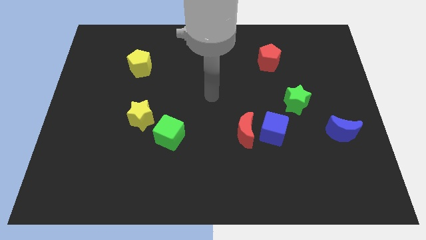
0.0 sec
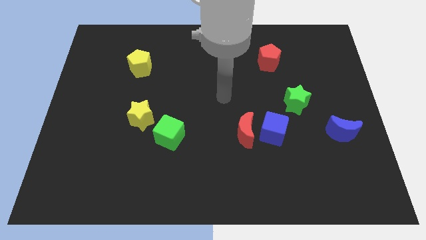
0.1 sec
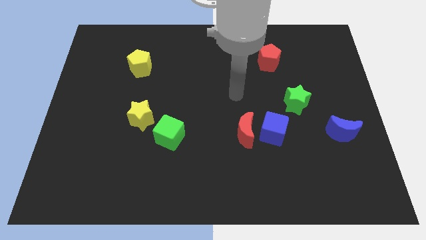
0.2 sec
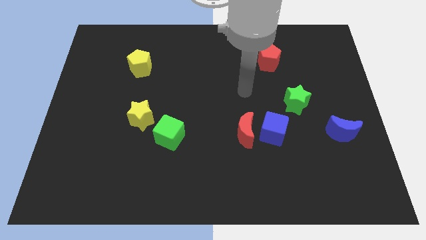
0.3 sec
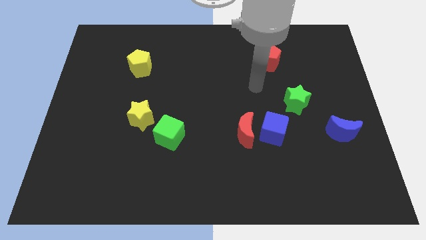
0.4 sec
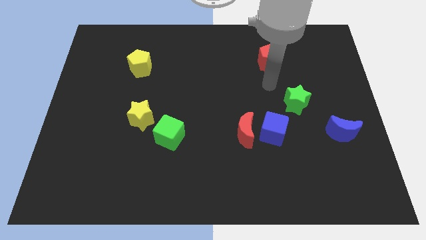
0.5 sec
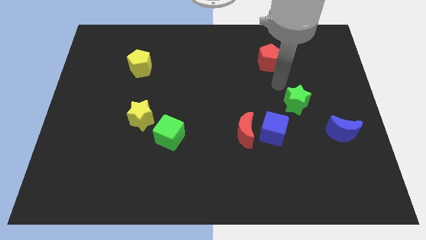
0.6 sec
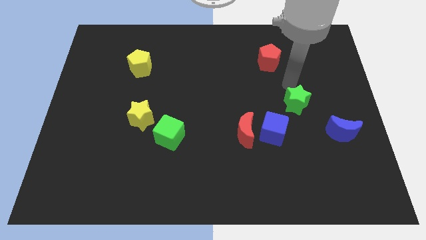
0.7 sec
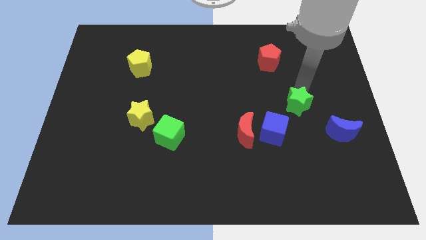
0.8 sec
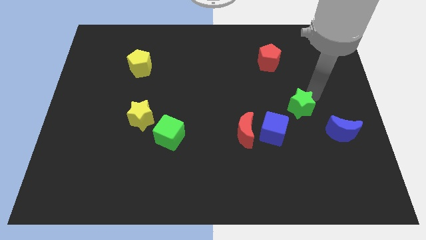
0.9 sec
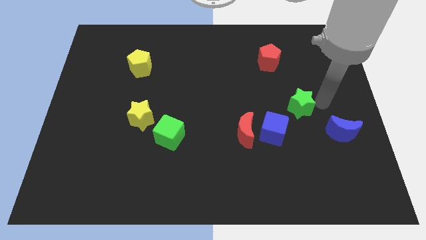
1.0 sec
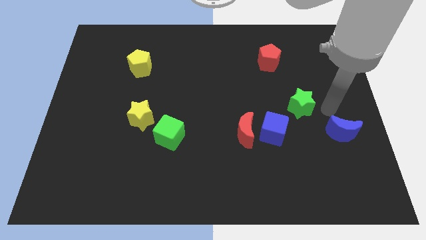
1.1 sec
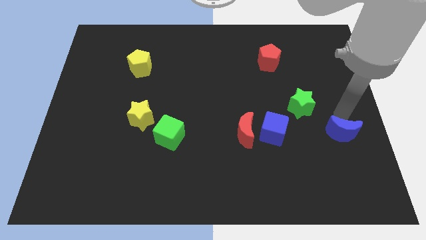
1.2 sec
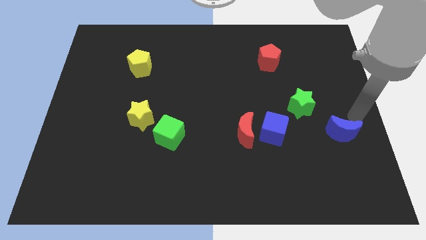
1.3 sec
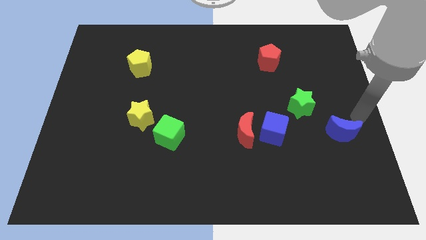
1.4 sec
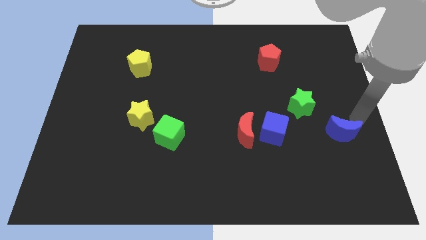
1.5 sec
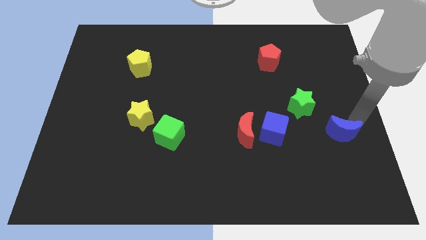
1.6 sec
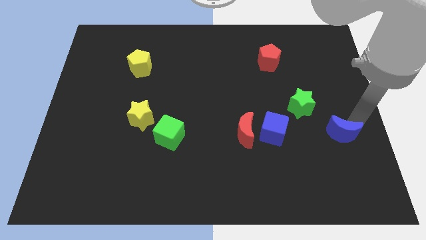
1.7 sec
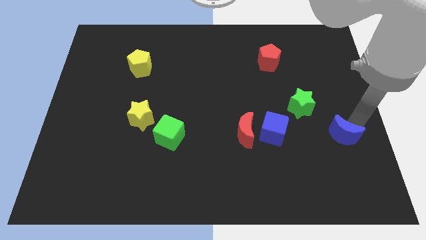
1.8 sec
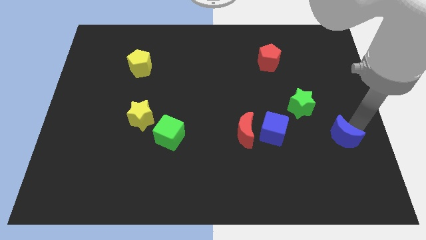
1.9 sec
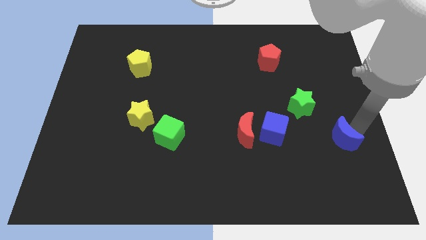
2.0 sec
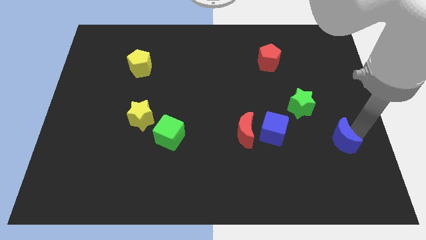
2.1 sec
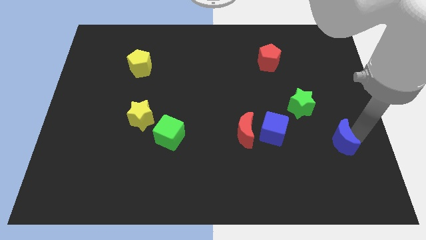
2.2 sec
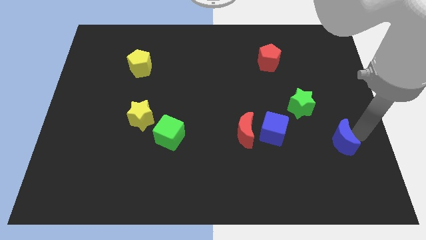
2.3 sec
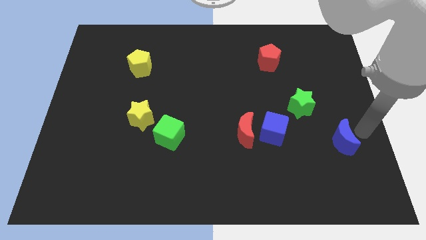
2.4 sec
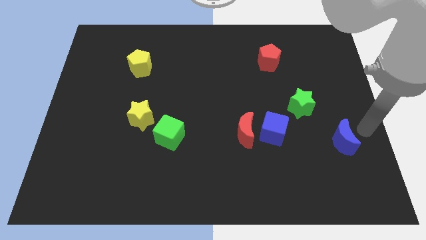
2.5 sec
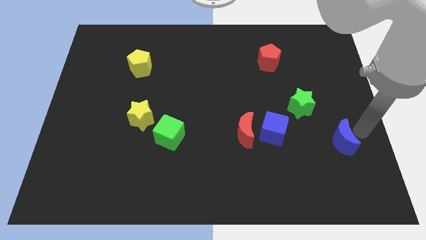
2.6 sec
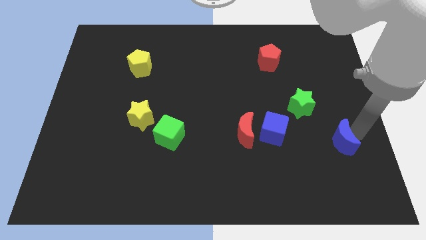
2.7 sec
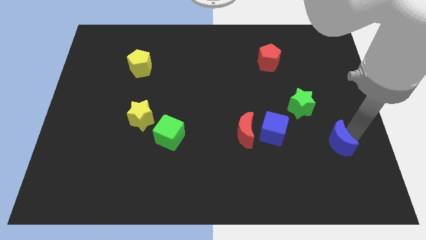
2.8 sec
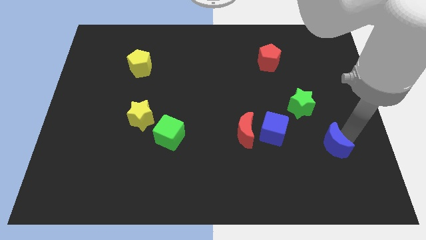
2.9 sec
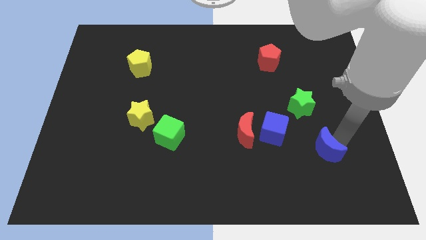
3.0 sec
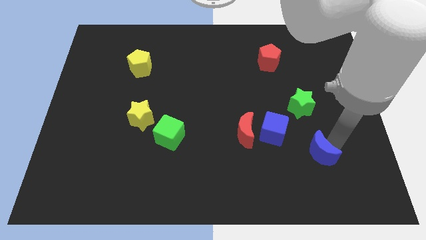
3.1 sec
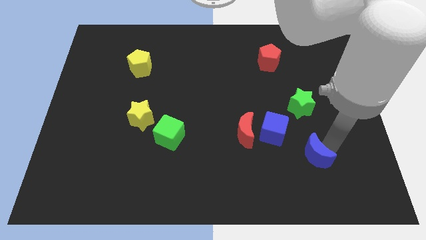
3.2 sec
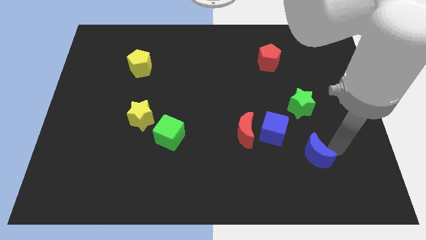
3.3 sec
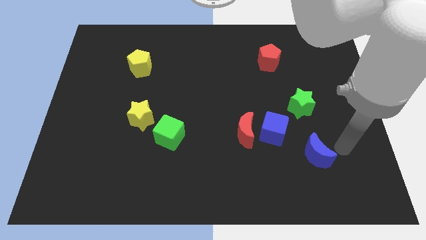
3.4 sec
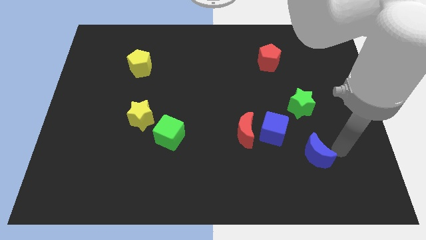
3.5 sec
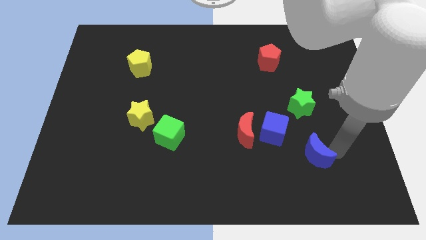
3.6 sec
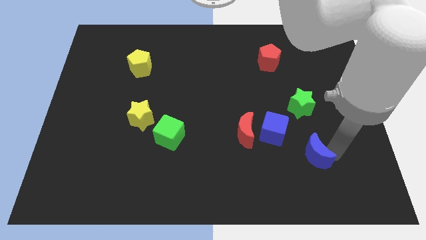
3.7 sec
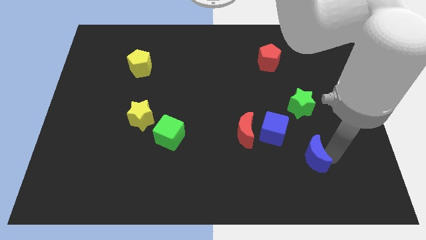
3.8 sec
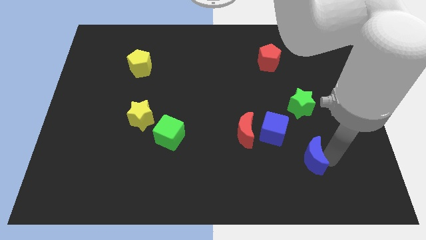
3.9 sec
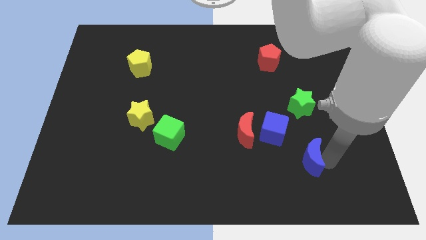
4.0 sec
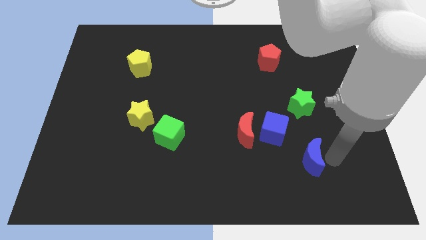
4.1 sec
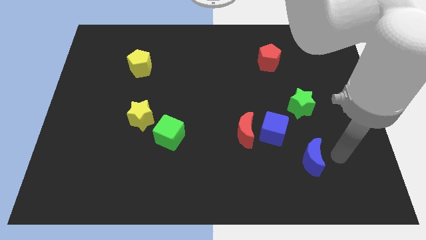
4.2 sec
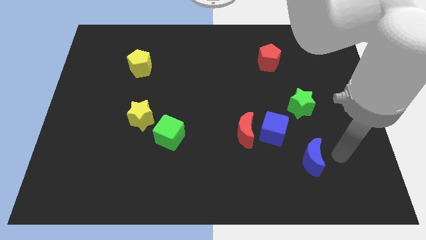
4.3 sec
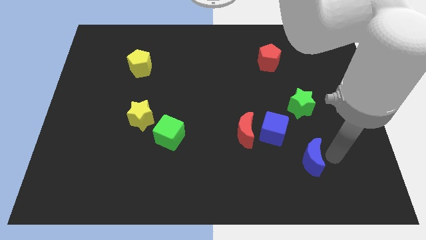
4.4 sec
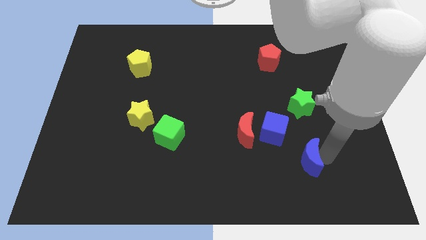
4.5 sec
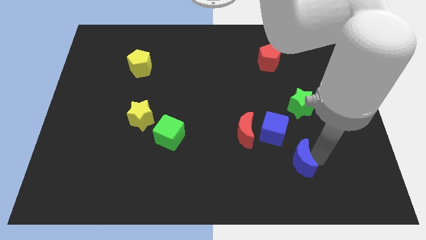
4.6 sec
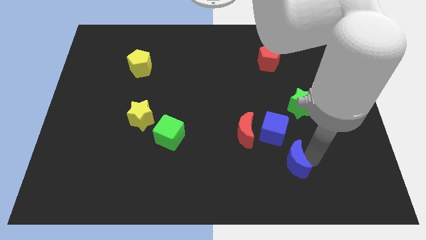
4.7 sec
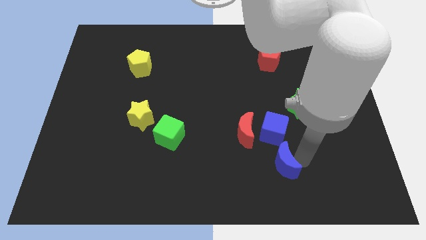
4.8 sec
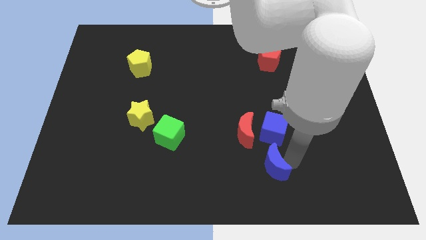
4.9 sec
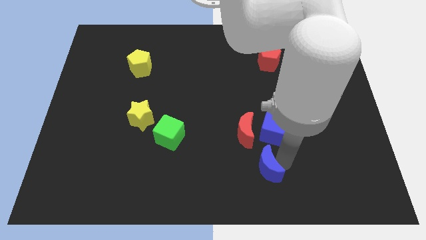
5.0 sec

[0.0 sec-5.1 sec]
push the blue moon to the bottom side of the red moon

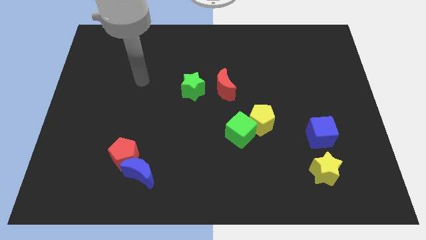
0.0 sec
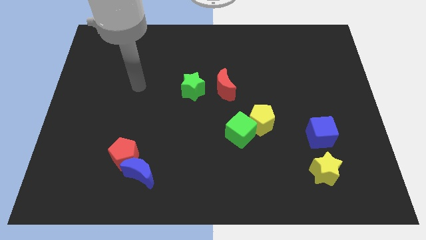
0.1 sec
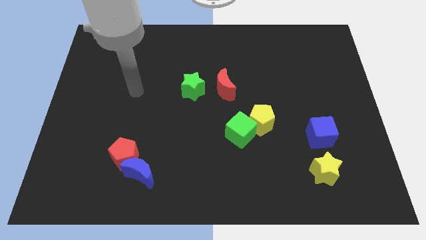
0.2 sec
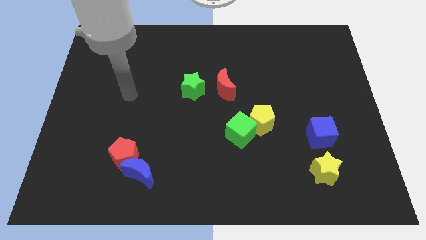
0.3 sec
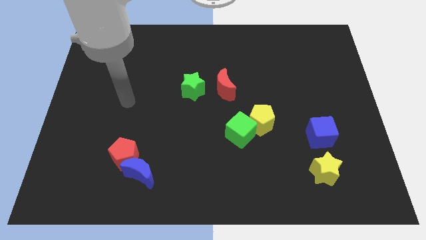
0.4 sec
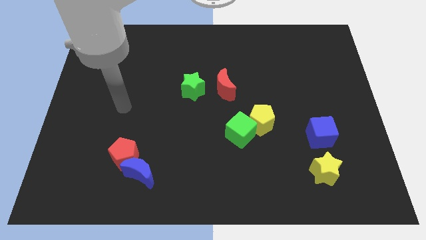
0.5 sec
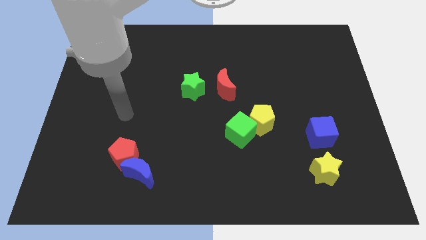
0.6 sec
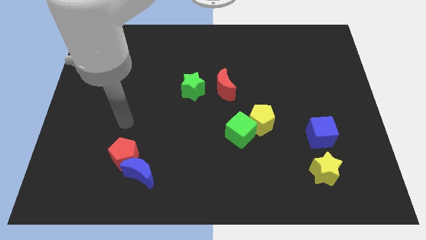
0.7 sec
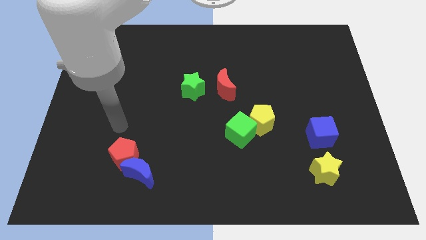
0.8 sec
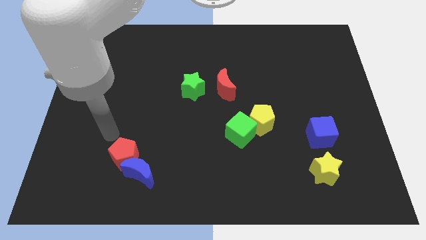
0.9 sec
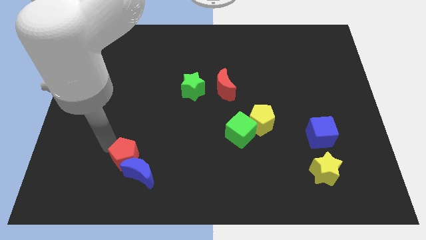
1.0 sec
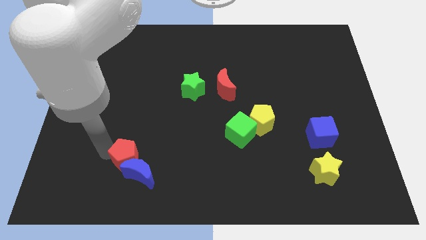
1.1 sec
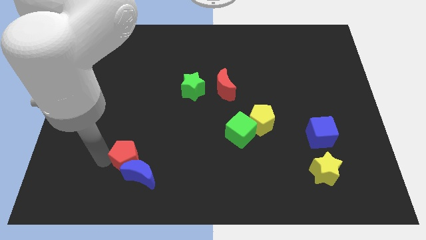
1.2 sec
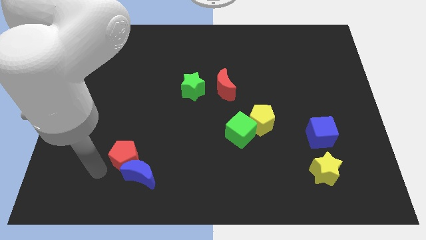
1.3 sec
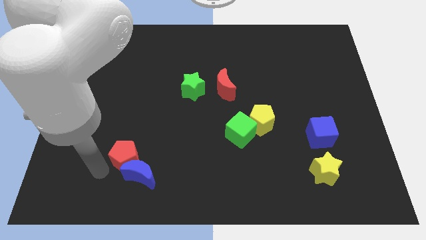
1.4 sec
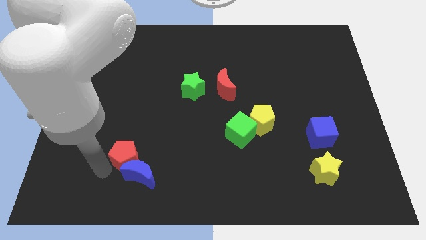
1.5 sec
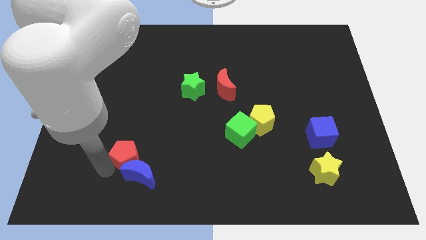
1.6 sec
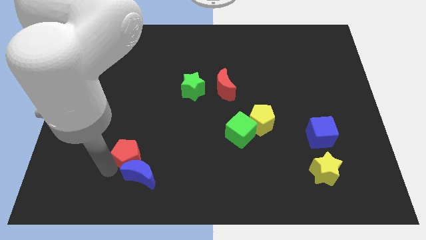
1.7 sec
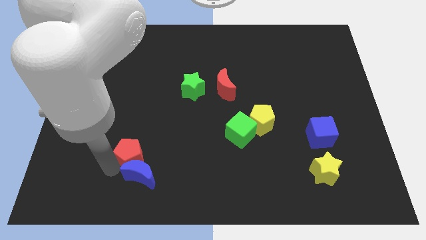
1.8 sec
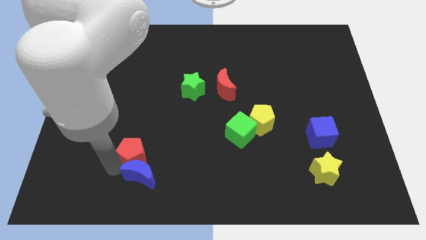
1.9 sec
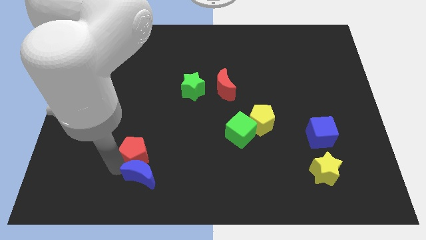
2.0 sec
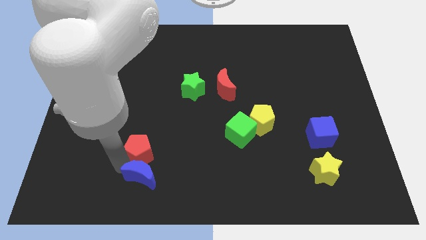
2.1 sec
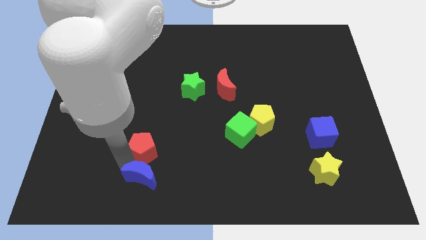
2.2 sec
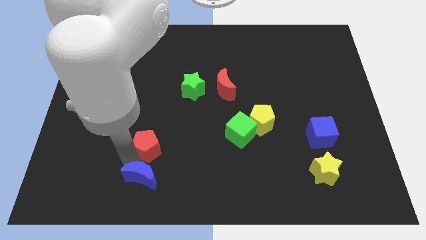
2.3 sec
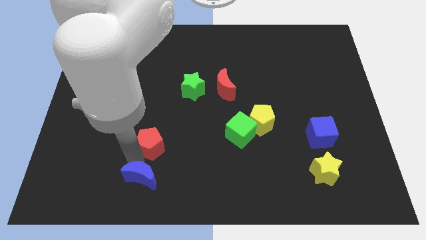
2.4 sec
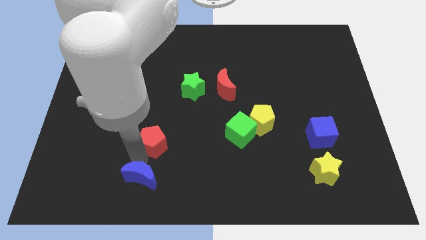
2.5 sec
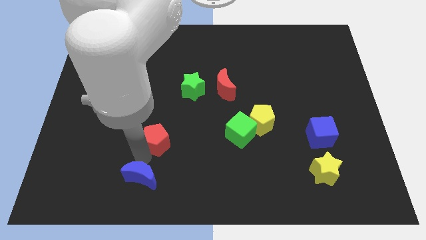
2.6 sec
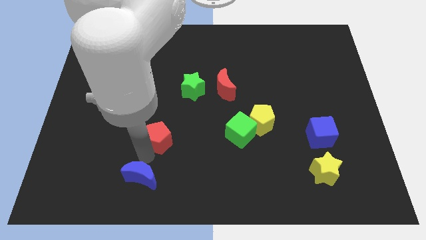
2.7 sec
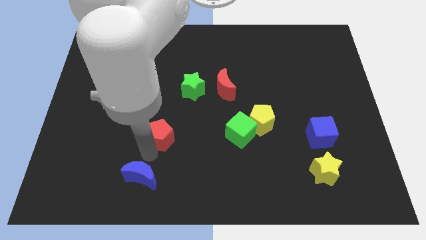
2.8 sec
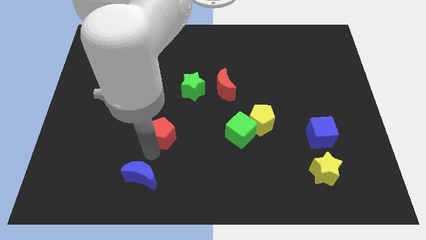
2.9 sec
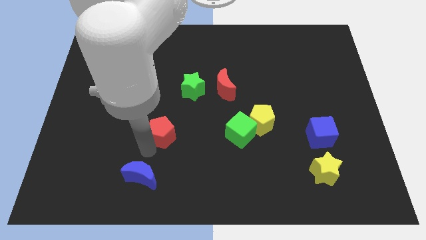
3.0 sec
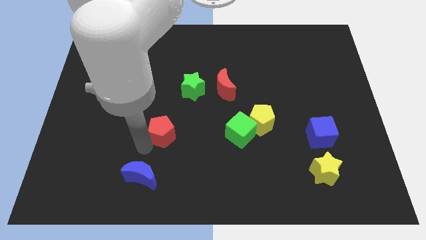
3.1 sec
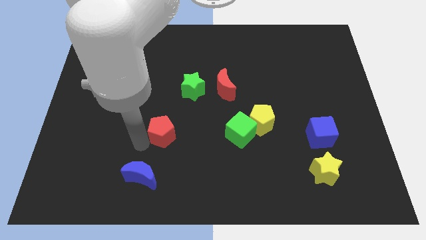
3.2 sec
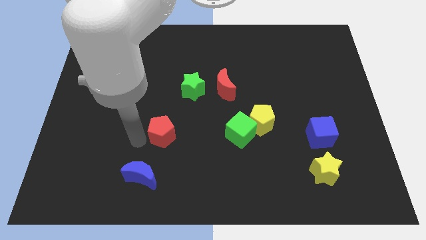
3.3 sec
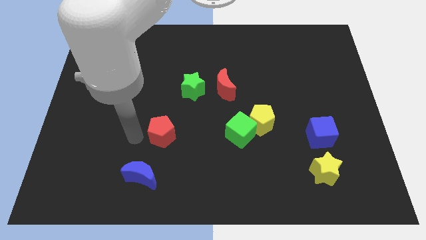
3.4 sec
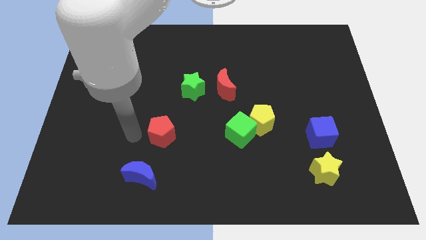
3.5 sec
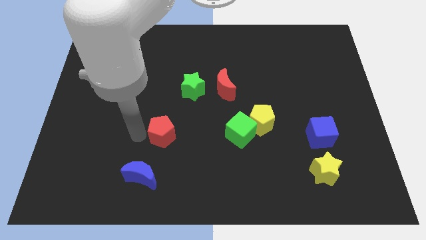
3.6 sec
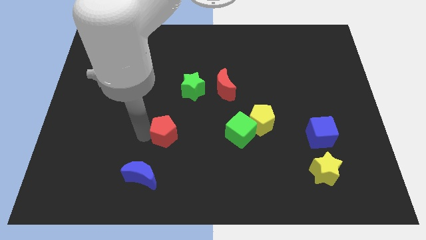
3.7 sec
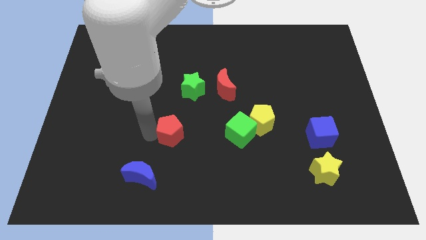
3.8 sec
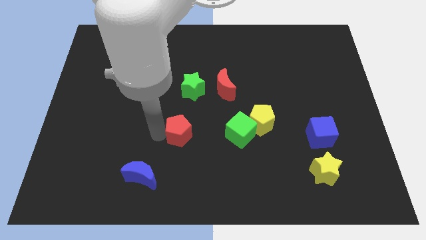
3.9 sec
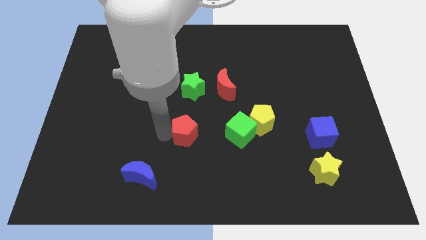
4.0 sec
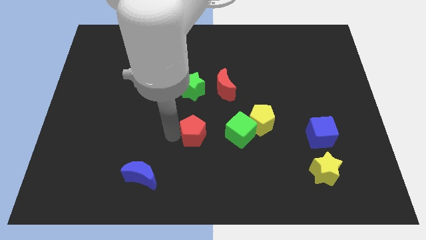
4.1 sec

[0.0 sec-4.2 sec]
slide the red pentagon just left of the yellow pentagon
